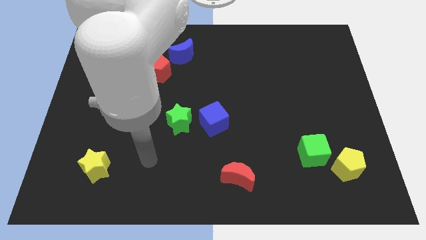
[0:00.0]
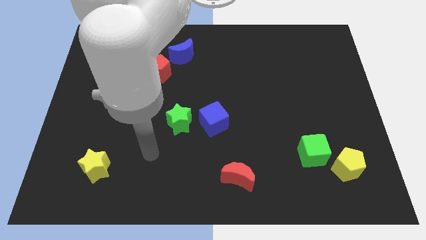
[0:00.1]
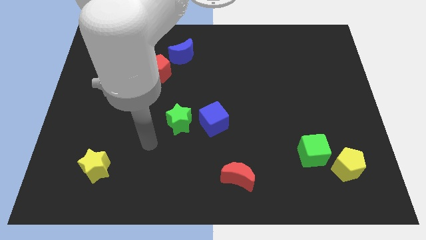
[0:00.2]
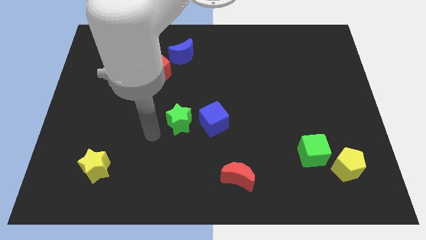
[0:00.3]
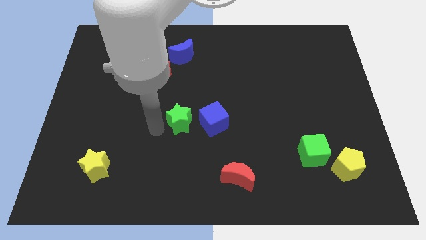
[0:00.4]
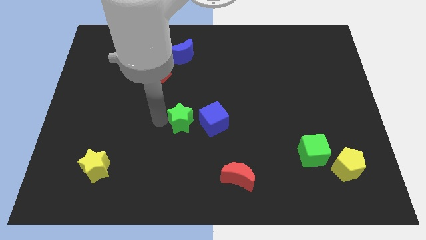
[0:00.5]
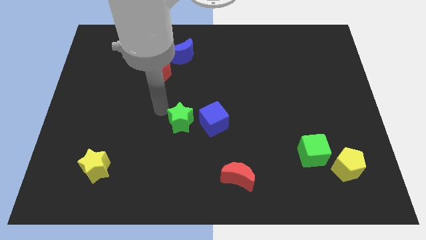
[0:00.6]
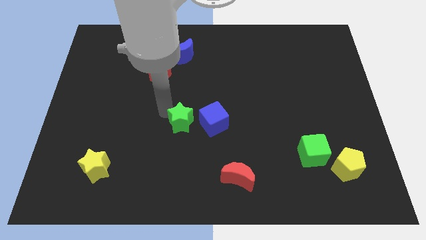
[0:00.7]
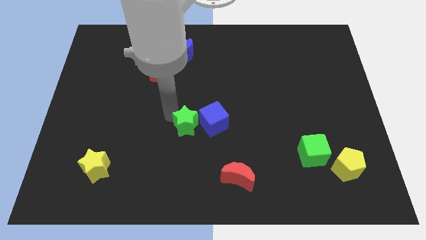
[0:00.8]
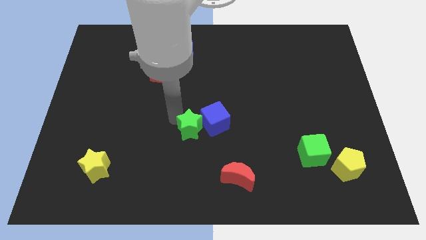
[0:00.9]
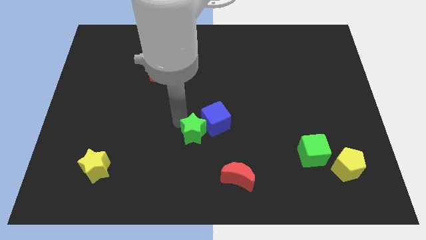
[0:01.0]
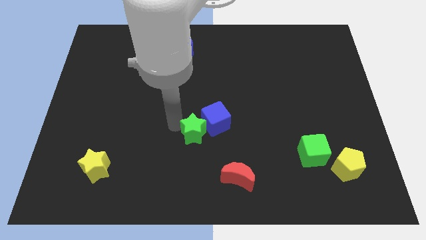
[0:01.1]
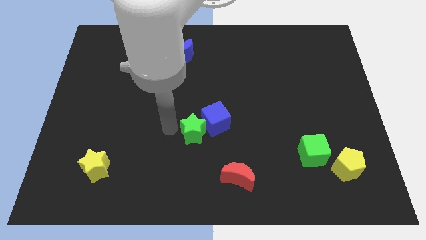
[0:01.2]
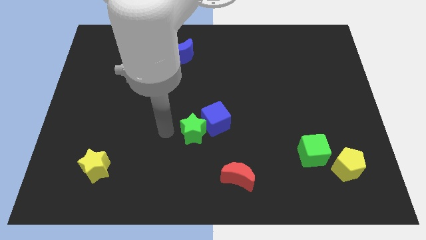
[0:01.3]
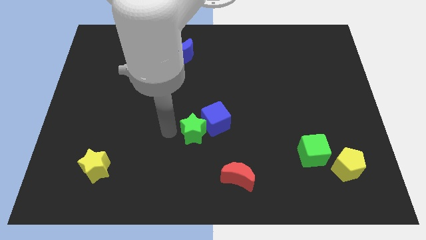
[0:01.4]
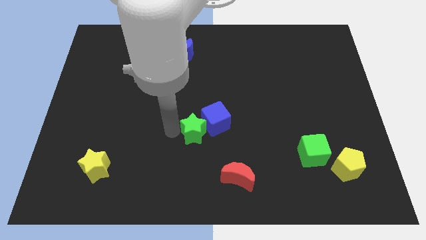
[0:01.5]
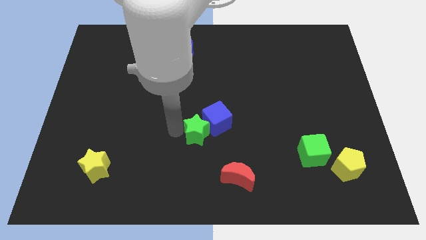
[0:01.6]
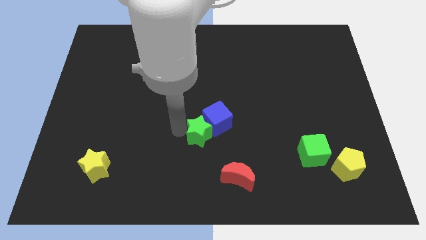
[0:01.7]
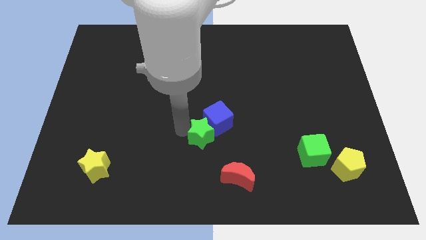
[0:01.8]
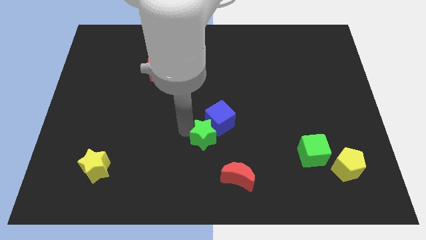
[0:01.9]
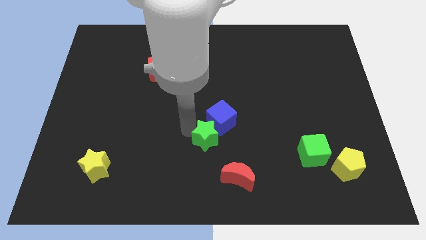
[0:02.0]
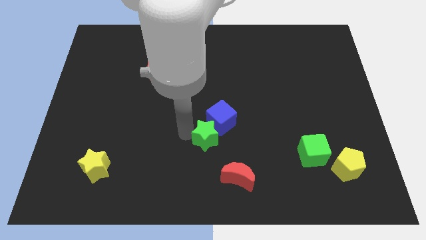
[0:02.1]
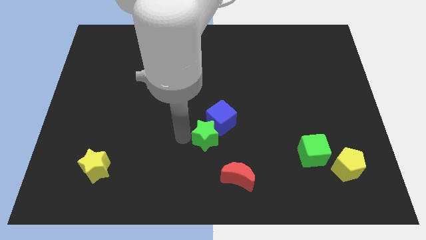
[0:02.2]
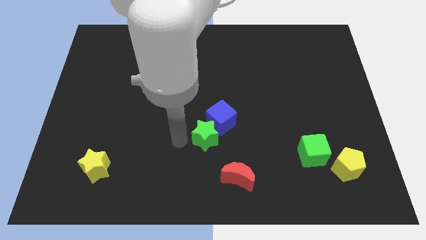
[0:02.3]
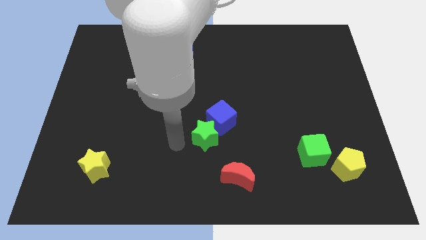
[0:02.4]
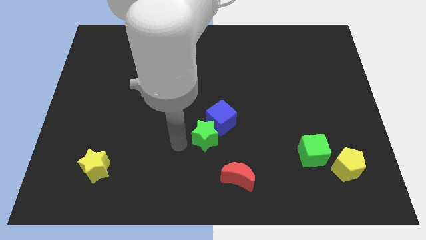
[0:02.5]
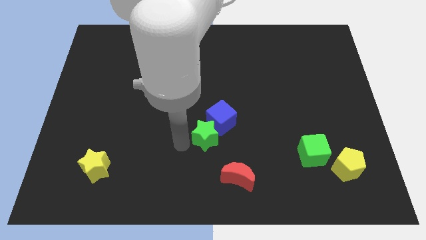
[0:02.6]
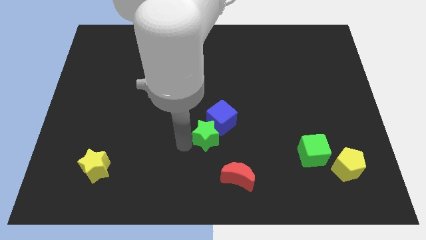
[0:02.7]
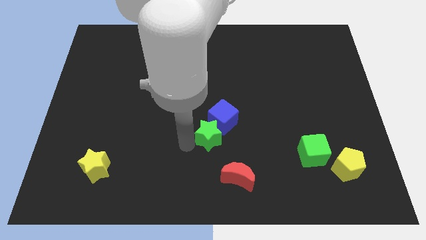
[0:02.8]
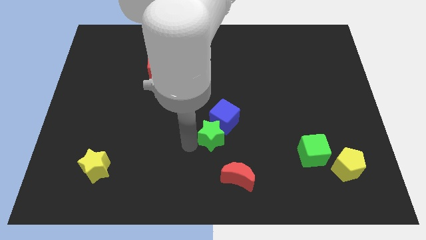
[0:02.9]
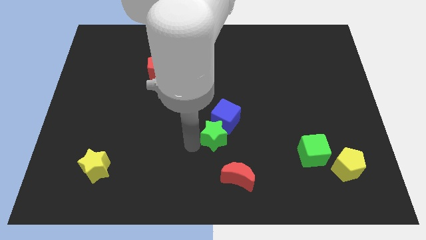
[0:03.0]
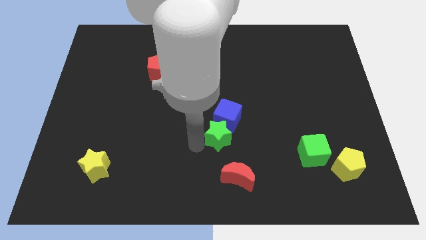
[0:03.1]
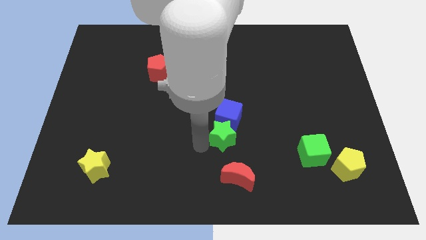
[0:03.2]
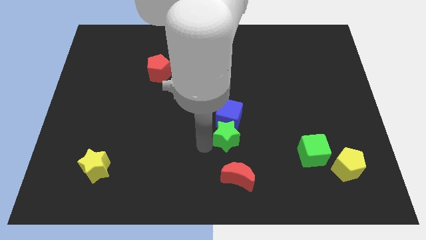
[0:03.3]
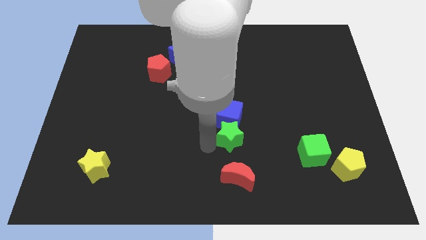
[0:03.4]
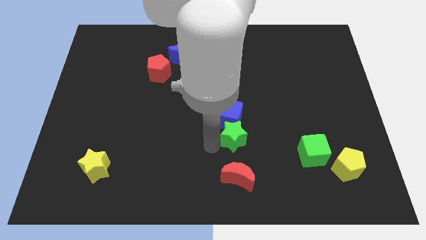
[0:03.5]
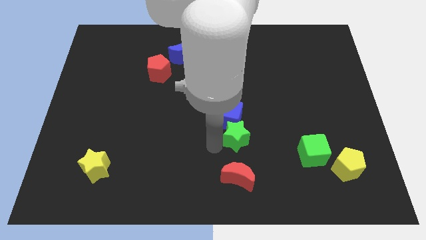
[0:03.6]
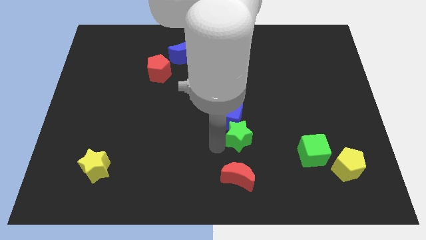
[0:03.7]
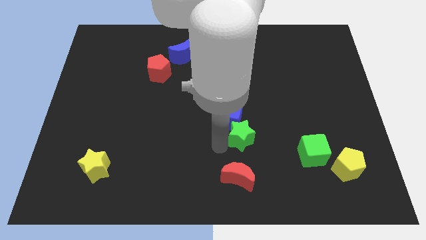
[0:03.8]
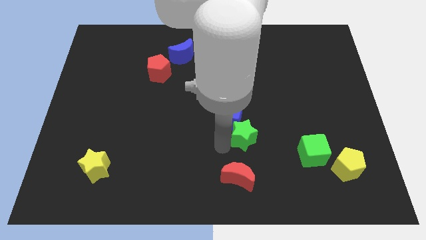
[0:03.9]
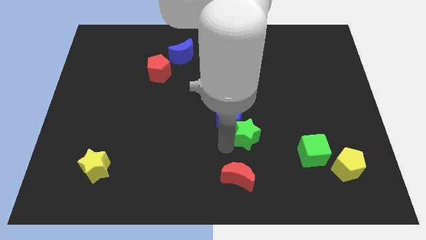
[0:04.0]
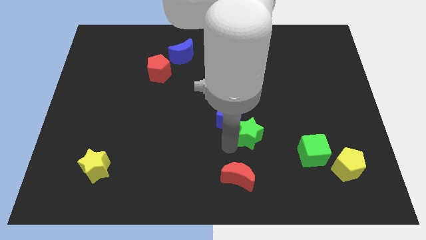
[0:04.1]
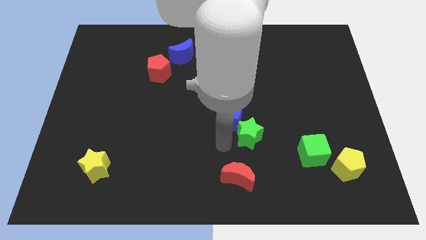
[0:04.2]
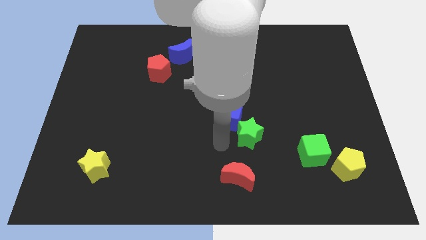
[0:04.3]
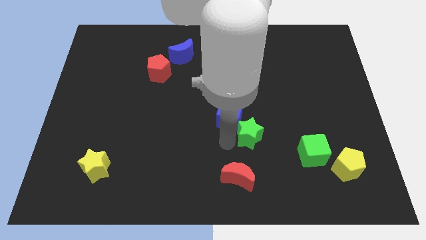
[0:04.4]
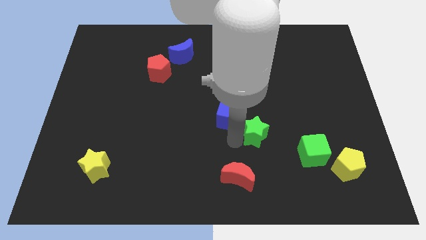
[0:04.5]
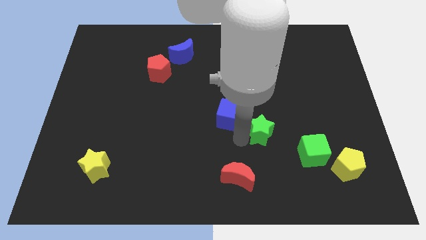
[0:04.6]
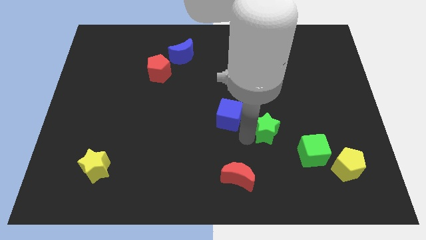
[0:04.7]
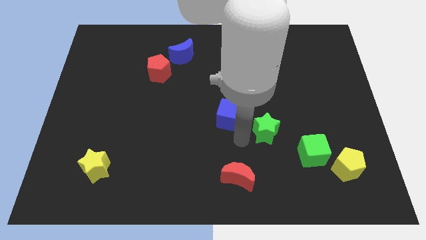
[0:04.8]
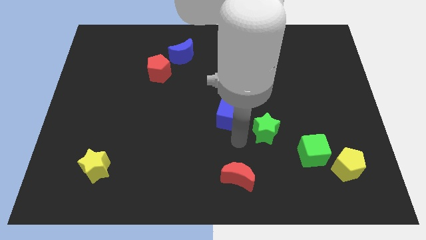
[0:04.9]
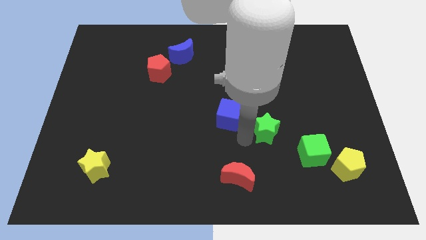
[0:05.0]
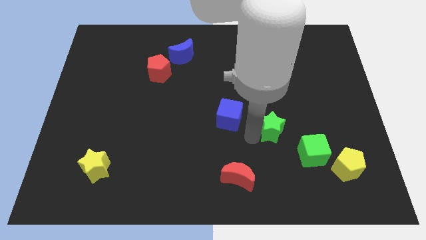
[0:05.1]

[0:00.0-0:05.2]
move the green star to the right

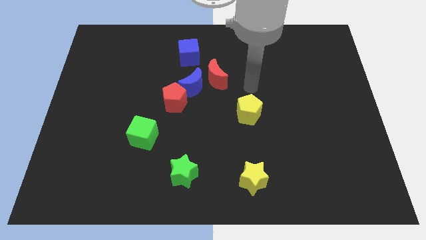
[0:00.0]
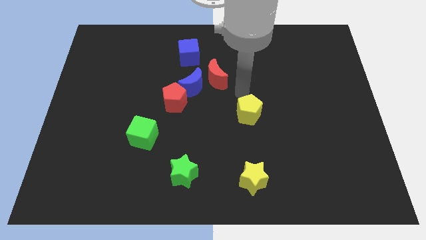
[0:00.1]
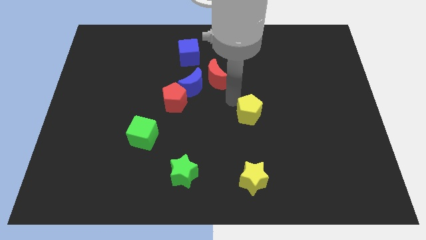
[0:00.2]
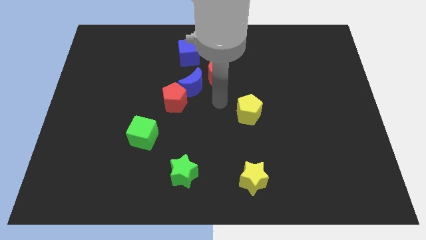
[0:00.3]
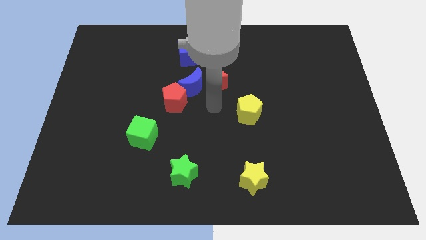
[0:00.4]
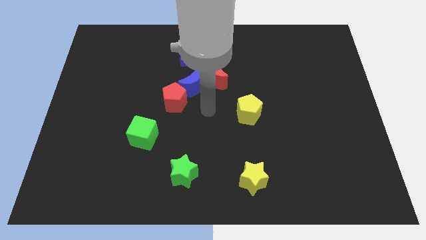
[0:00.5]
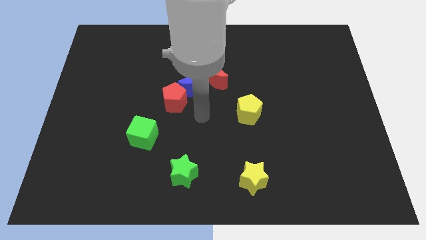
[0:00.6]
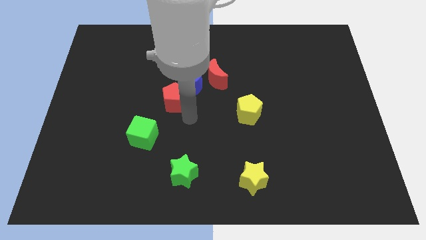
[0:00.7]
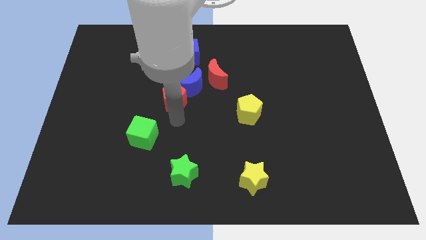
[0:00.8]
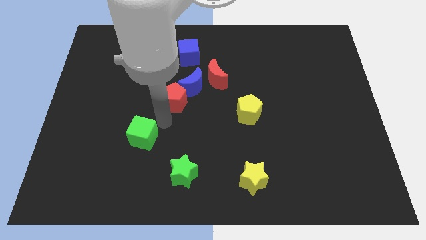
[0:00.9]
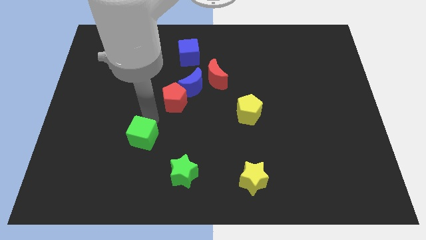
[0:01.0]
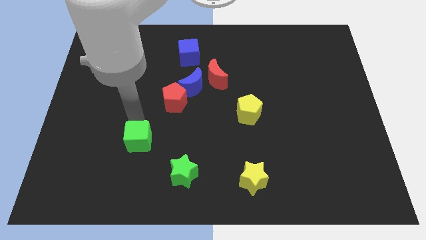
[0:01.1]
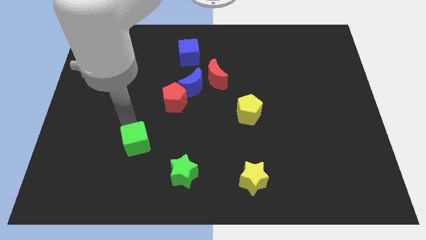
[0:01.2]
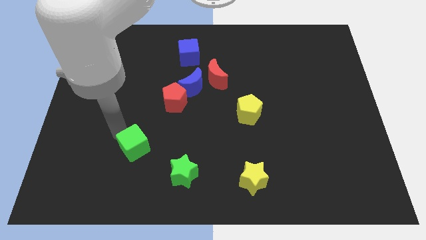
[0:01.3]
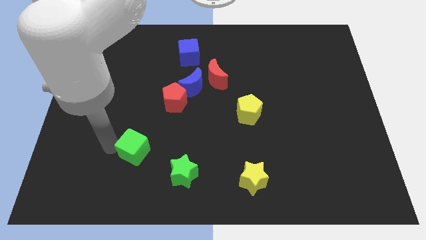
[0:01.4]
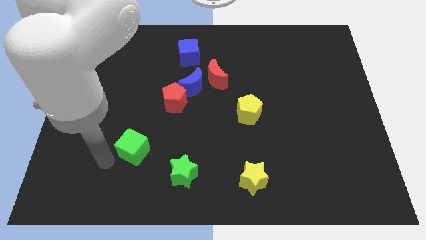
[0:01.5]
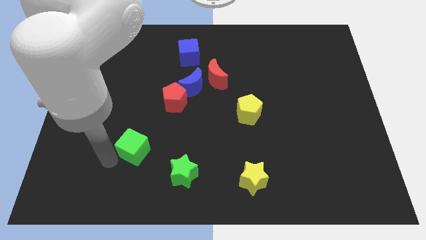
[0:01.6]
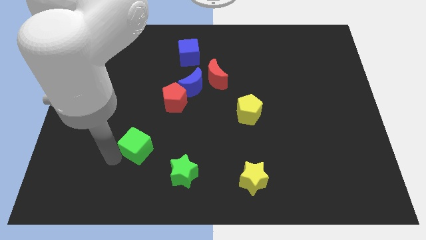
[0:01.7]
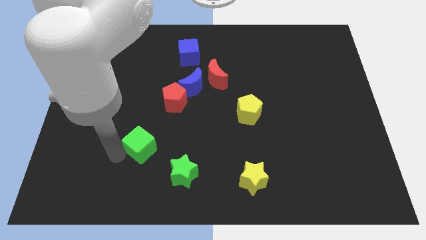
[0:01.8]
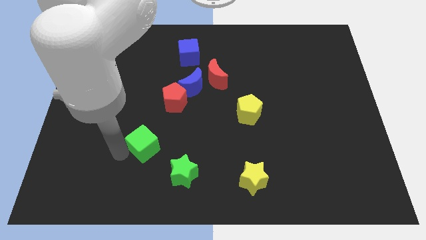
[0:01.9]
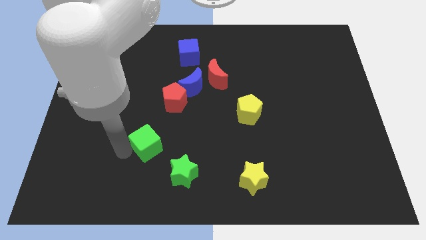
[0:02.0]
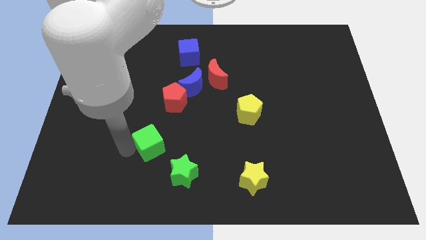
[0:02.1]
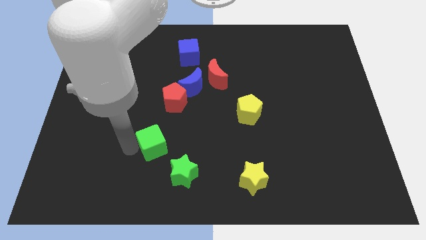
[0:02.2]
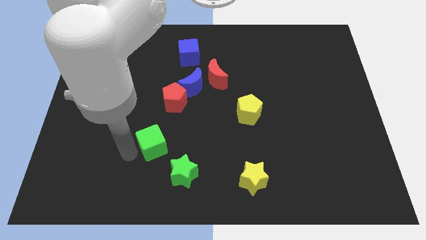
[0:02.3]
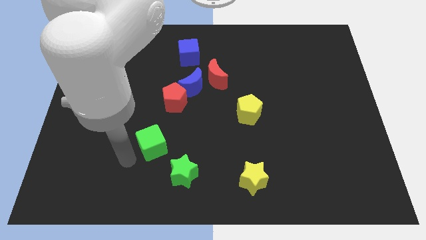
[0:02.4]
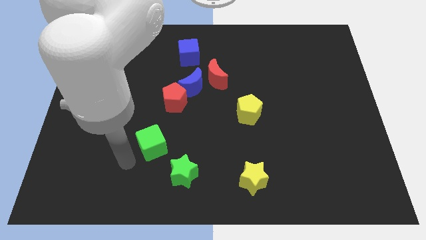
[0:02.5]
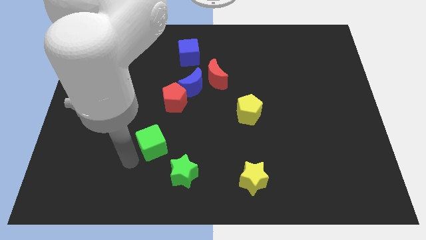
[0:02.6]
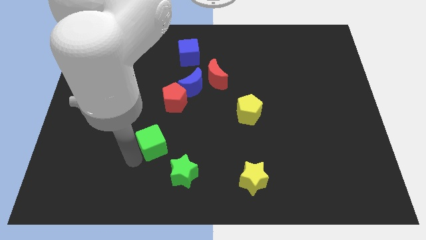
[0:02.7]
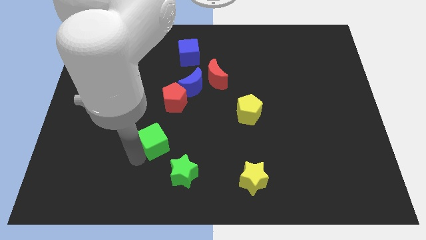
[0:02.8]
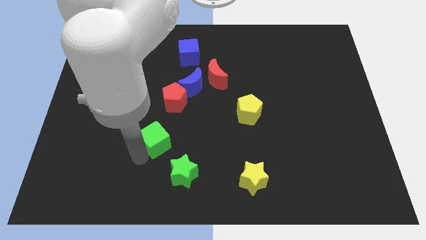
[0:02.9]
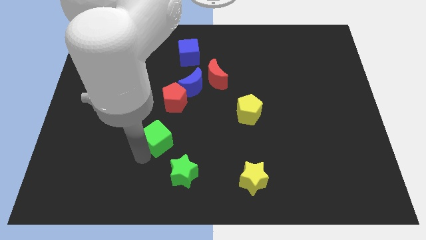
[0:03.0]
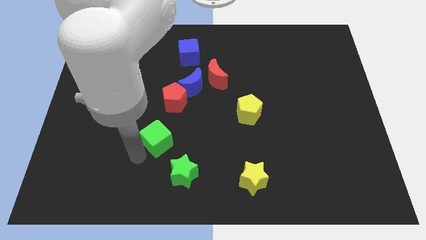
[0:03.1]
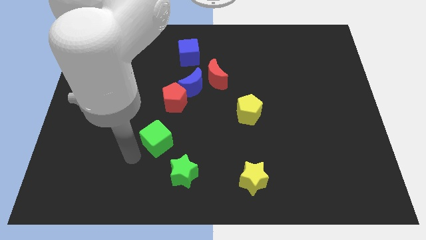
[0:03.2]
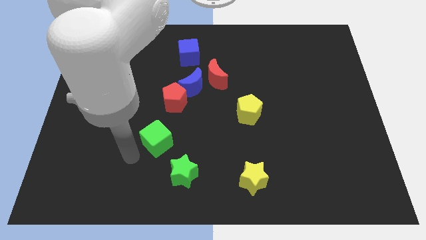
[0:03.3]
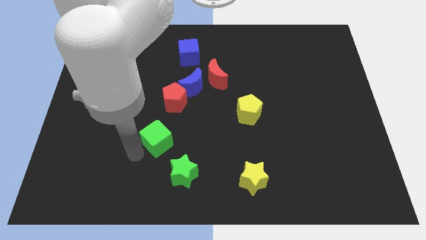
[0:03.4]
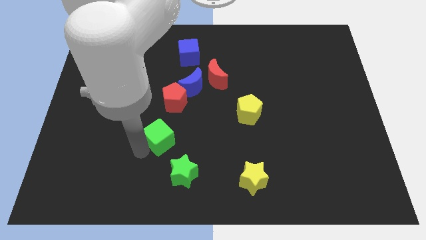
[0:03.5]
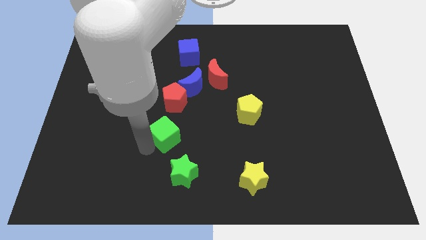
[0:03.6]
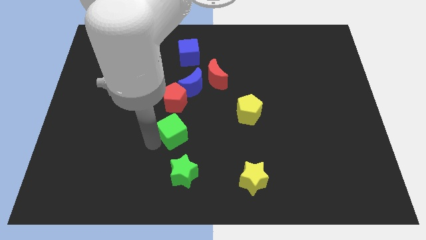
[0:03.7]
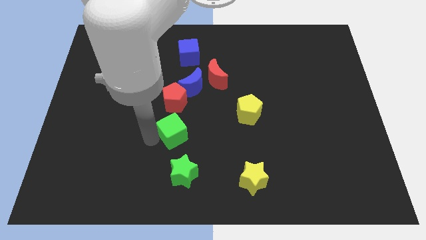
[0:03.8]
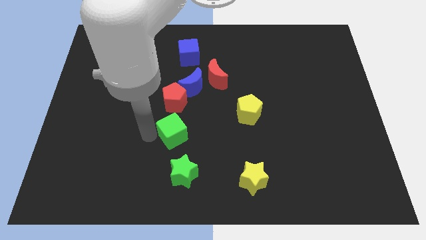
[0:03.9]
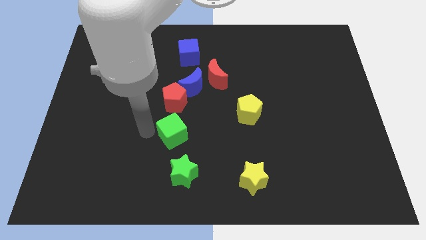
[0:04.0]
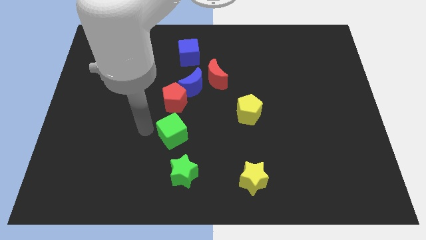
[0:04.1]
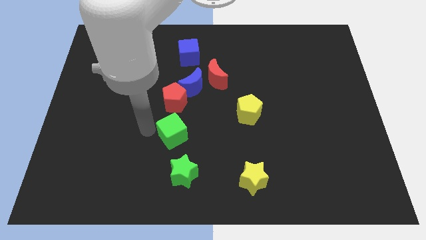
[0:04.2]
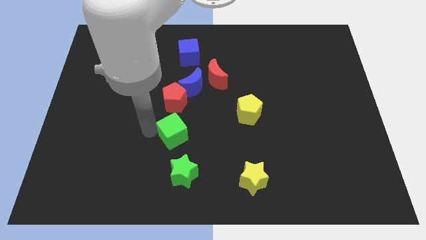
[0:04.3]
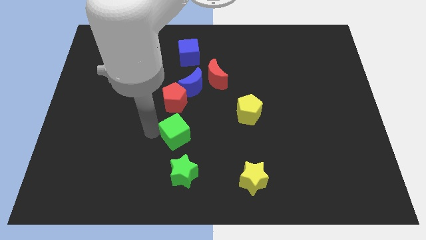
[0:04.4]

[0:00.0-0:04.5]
slightly push the green cube to the right
